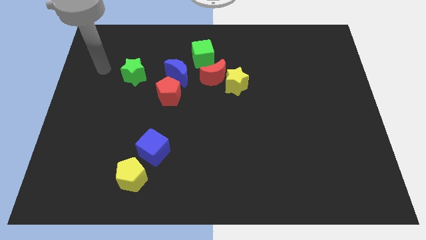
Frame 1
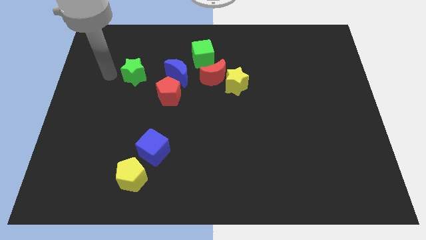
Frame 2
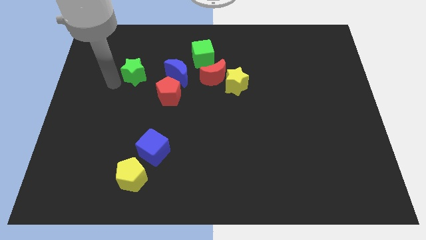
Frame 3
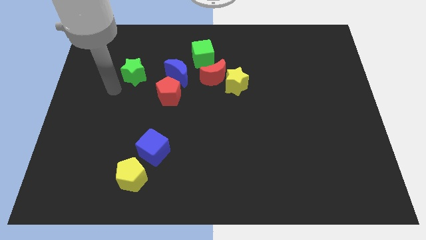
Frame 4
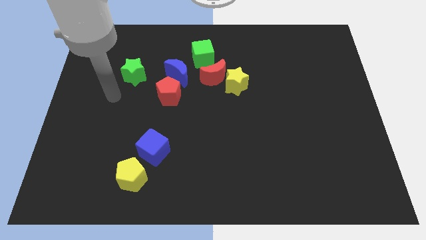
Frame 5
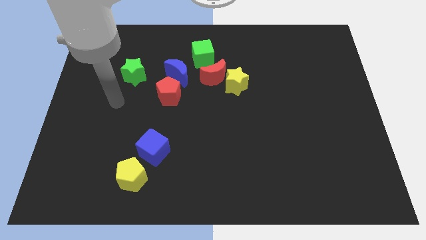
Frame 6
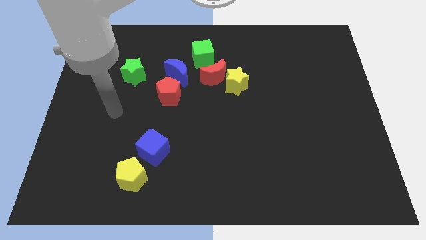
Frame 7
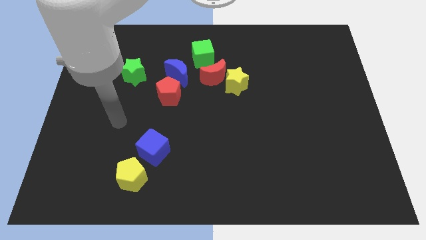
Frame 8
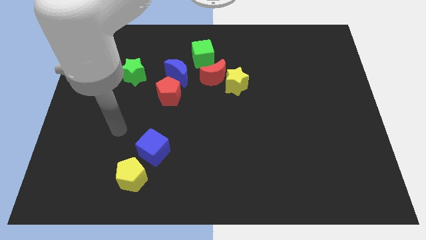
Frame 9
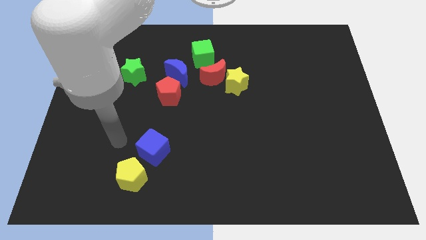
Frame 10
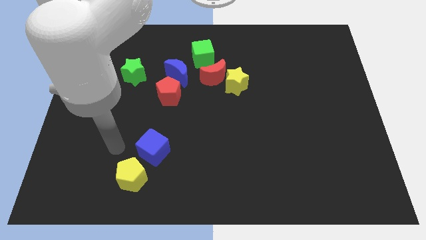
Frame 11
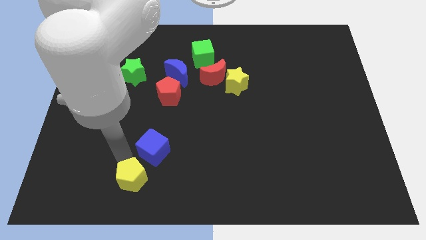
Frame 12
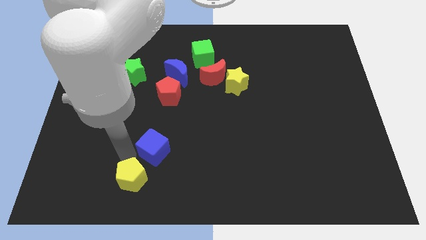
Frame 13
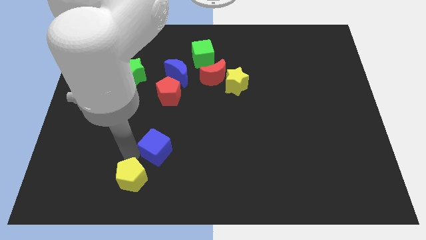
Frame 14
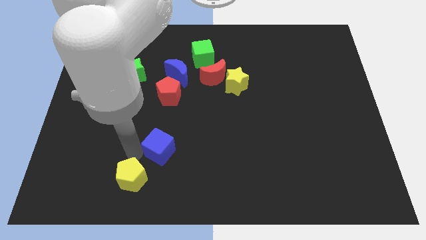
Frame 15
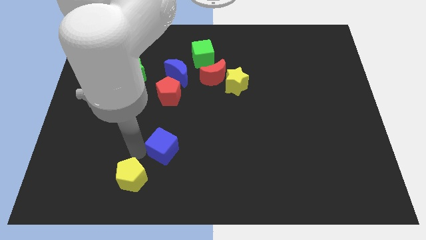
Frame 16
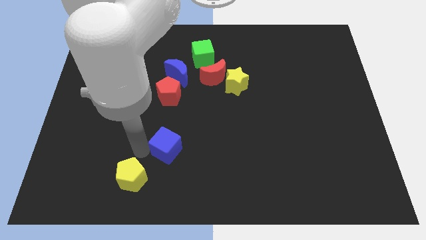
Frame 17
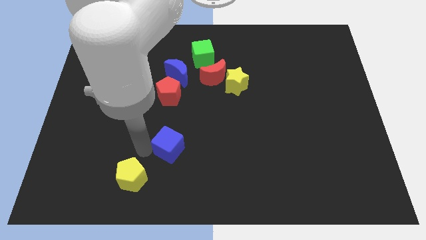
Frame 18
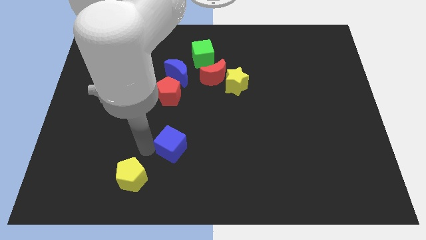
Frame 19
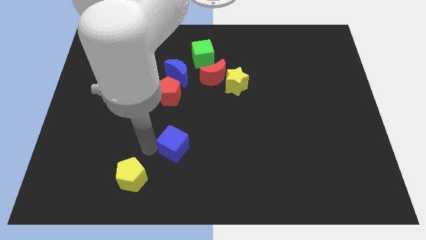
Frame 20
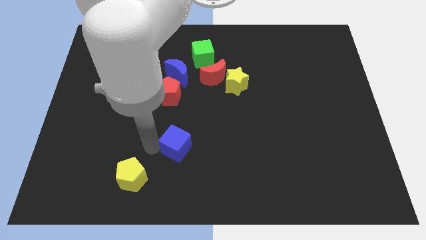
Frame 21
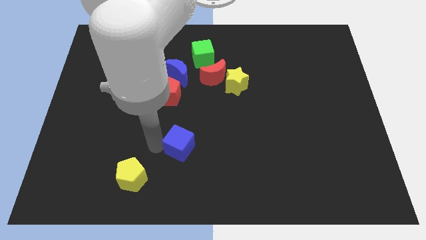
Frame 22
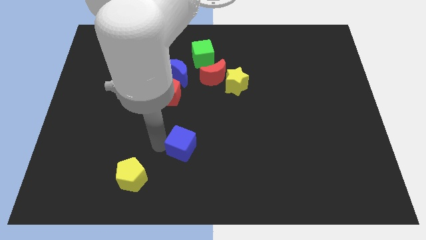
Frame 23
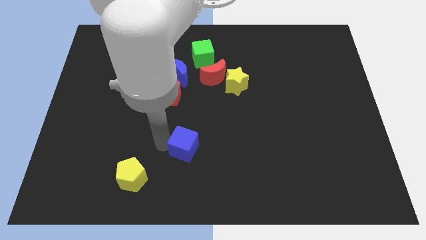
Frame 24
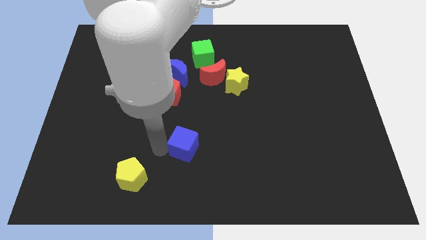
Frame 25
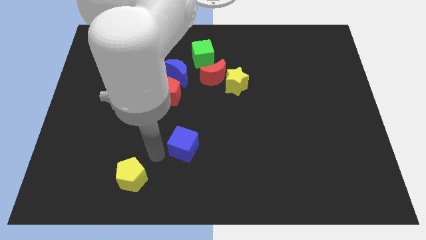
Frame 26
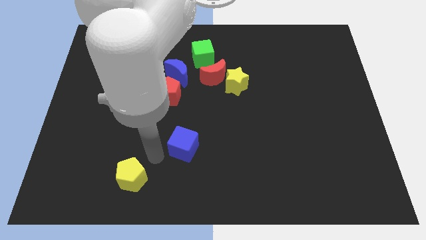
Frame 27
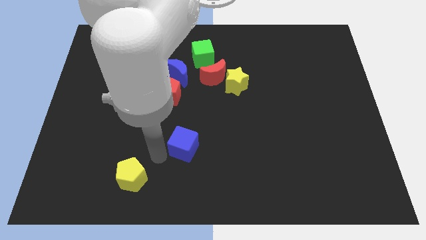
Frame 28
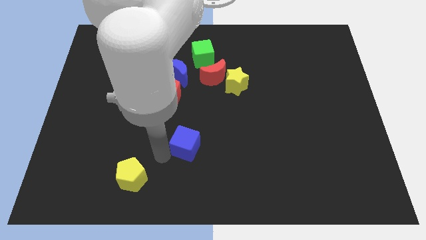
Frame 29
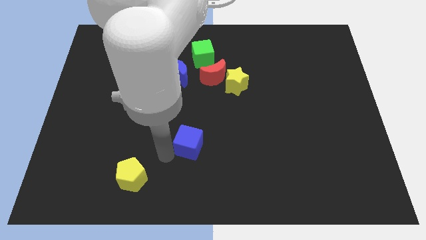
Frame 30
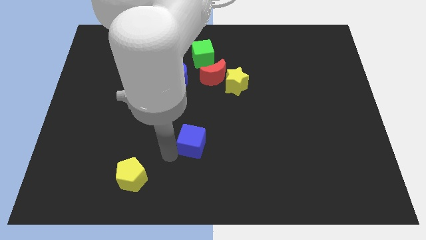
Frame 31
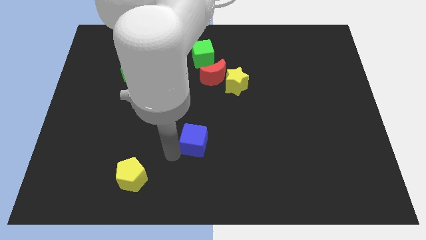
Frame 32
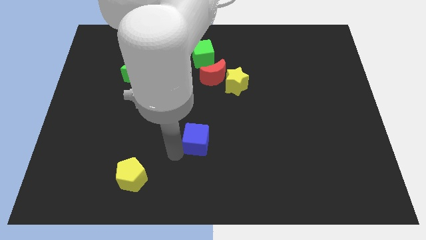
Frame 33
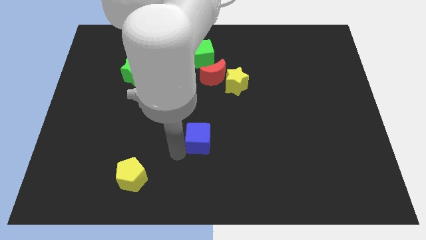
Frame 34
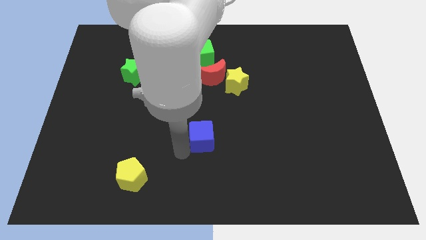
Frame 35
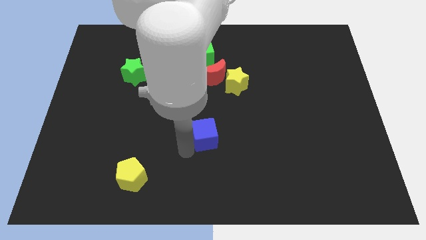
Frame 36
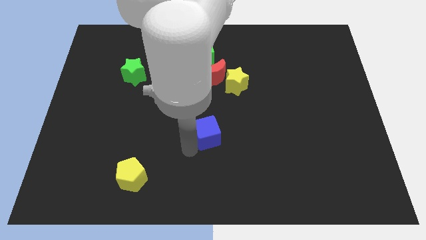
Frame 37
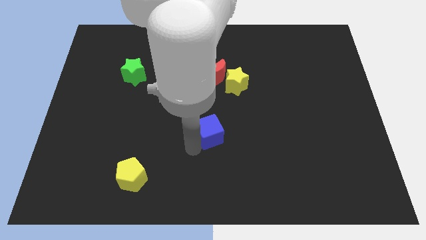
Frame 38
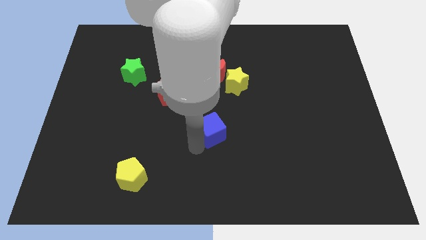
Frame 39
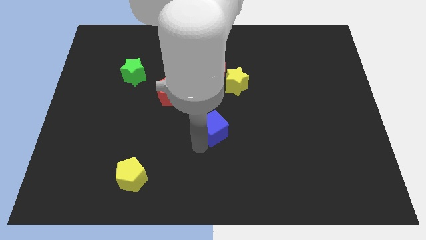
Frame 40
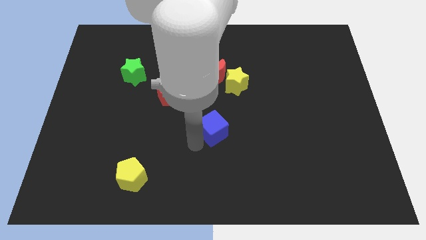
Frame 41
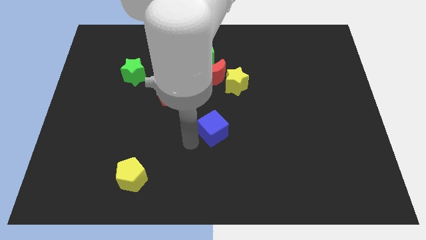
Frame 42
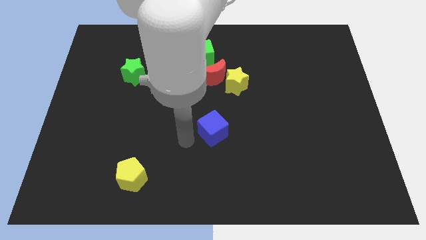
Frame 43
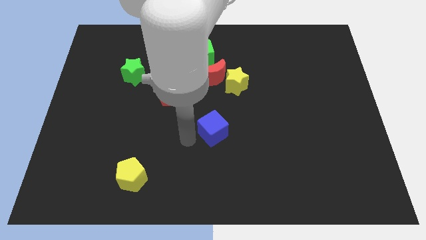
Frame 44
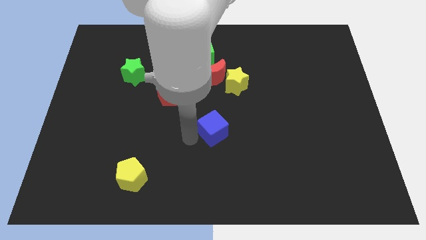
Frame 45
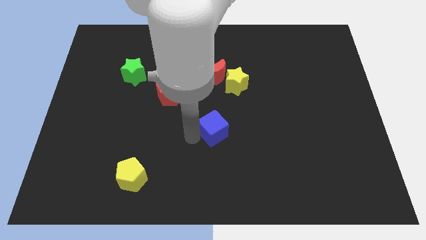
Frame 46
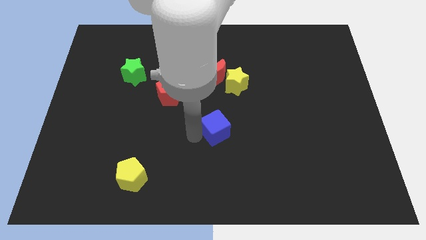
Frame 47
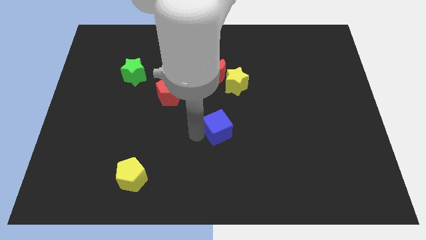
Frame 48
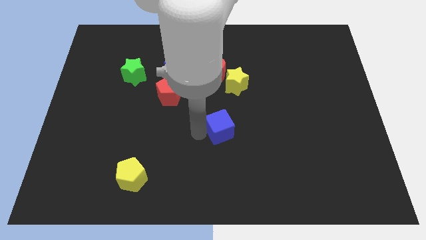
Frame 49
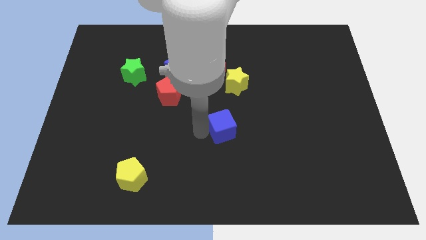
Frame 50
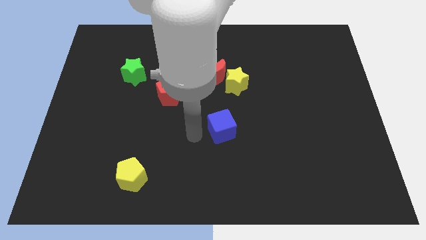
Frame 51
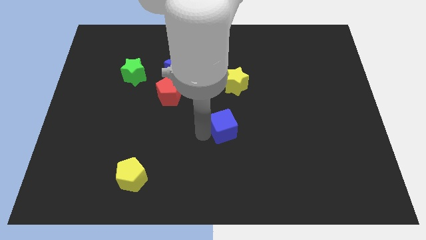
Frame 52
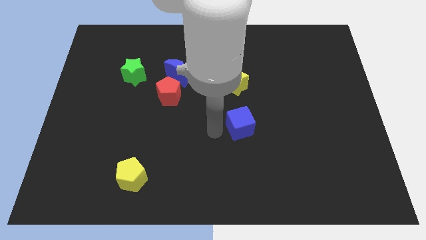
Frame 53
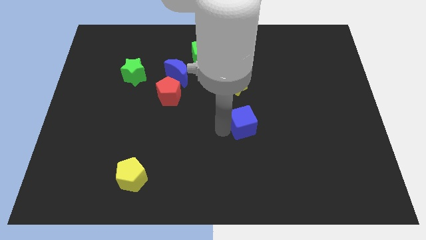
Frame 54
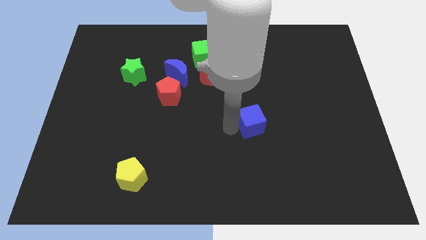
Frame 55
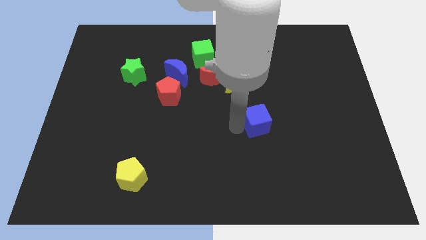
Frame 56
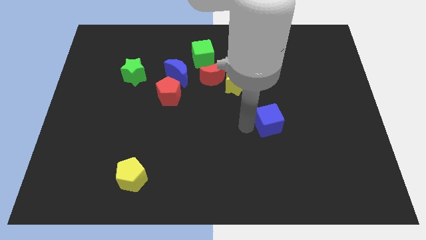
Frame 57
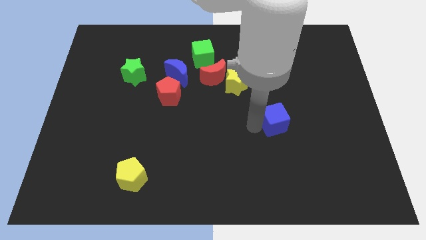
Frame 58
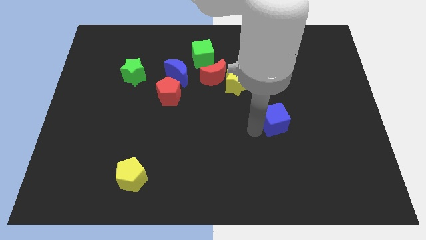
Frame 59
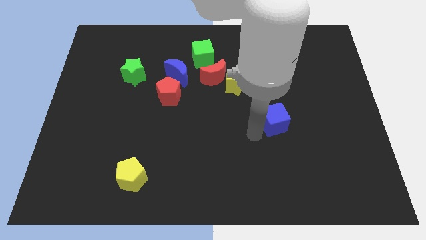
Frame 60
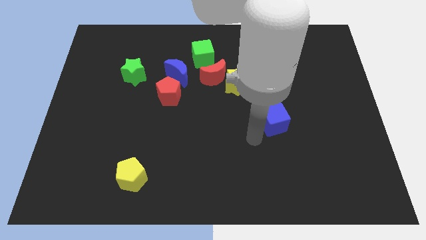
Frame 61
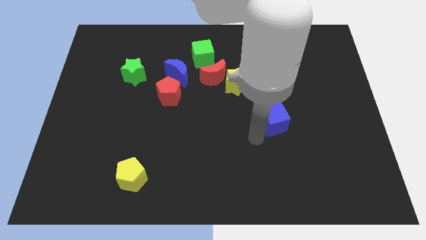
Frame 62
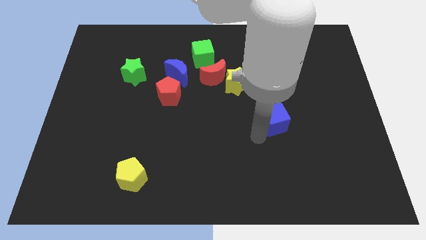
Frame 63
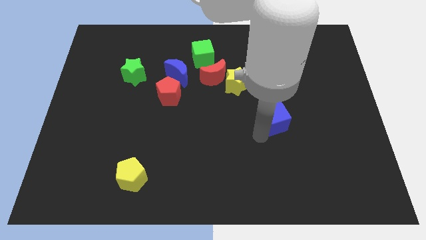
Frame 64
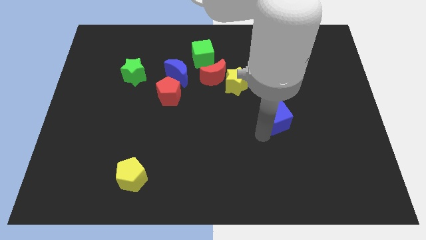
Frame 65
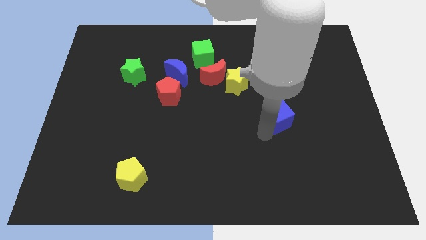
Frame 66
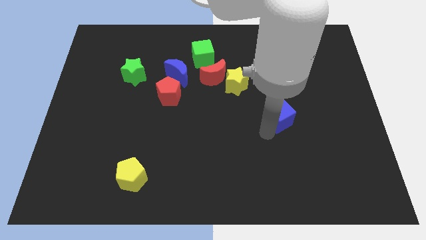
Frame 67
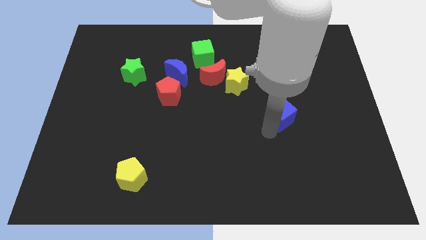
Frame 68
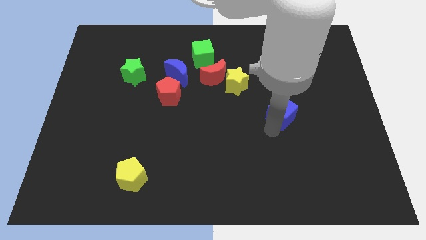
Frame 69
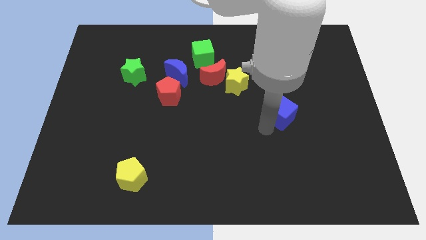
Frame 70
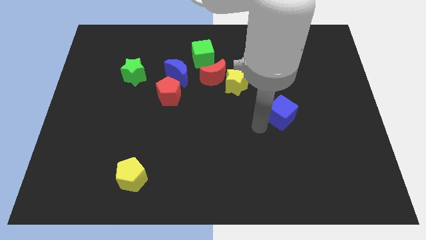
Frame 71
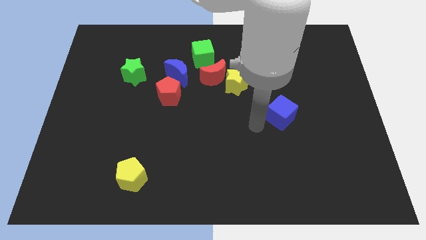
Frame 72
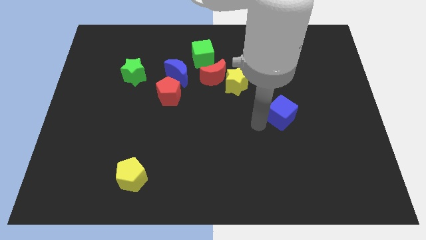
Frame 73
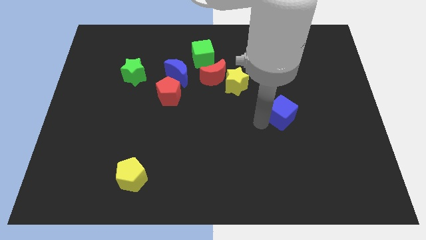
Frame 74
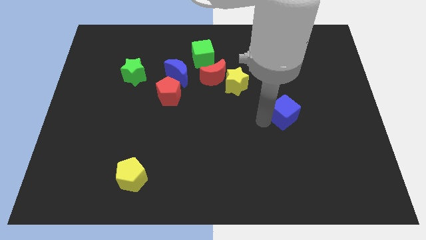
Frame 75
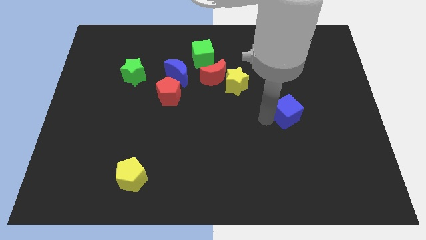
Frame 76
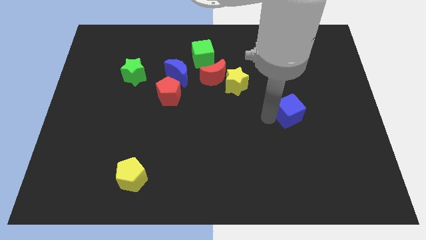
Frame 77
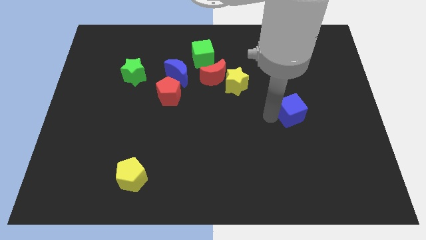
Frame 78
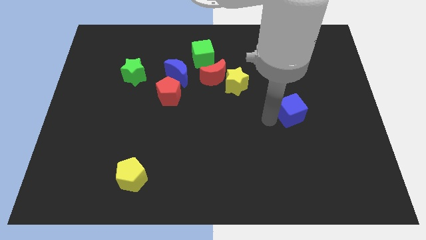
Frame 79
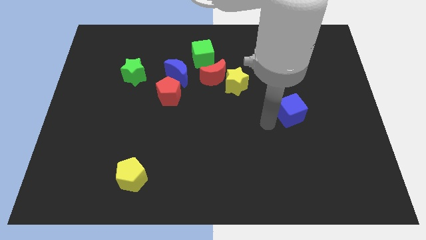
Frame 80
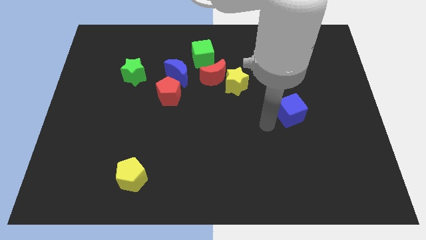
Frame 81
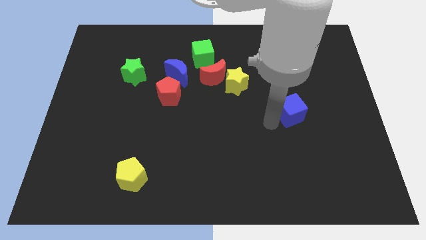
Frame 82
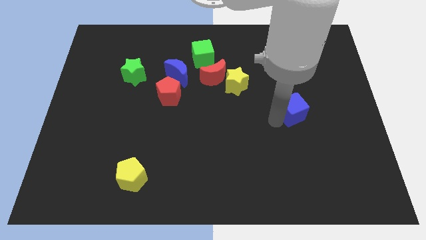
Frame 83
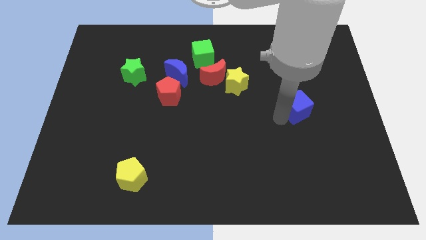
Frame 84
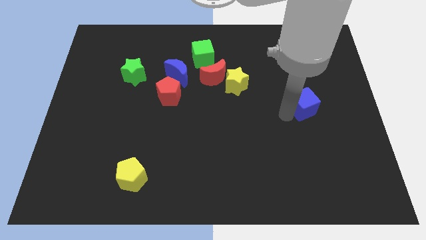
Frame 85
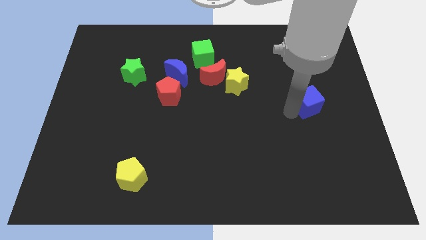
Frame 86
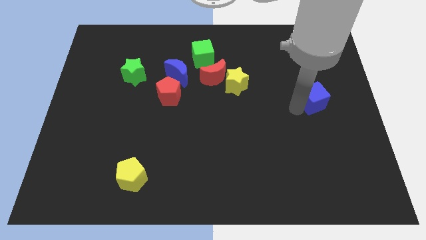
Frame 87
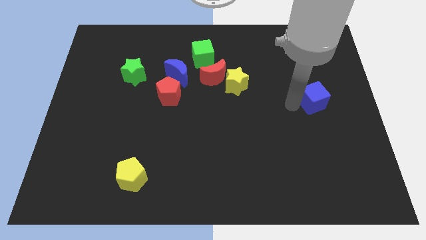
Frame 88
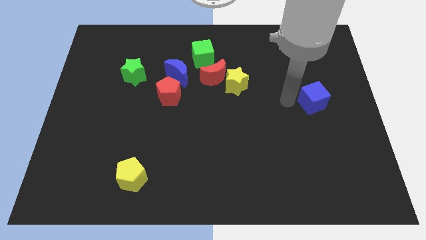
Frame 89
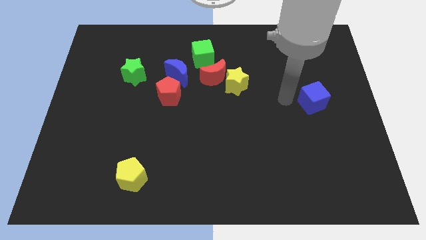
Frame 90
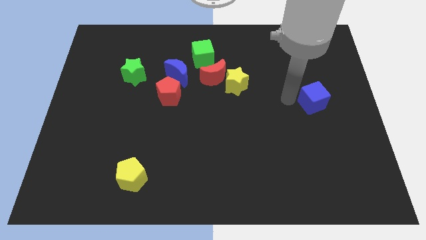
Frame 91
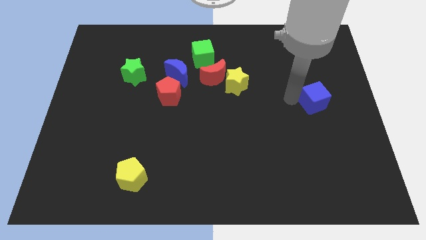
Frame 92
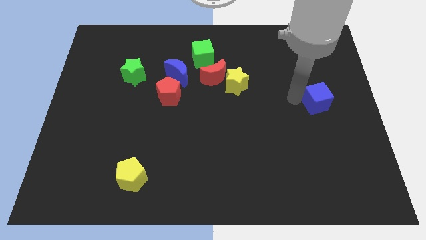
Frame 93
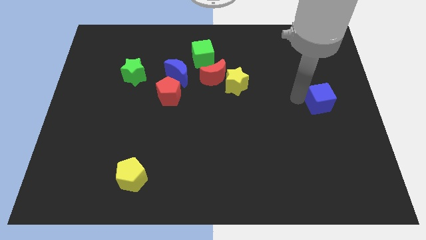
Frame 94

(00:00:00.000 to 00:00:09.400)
slide the blue cube to the right side of the board
